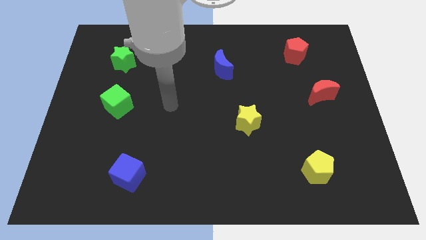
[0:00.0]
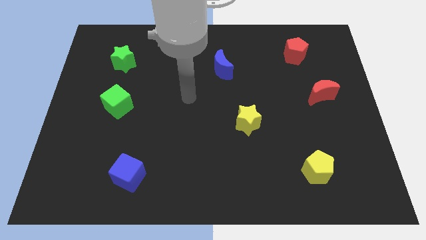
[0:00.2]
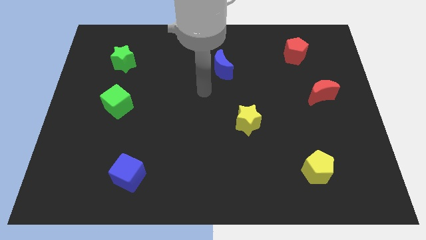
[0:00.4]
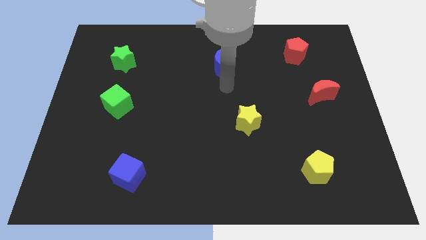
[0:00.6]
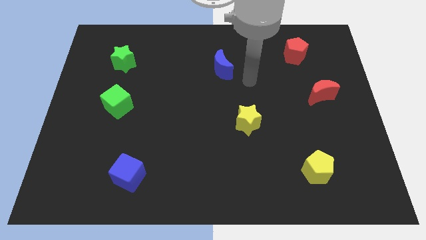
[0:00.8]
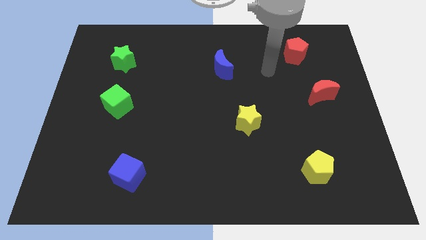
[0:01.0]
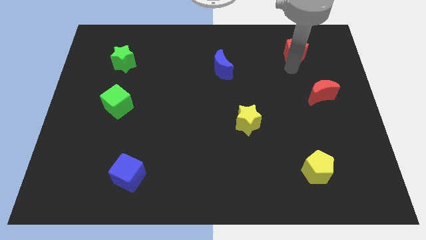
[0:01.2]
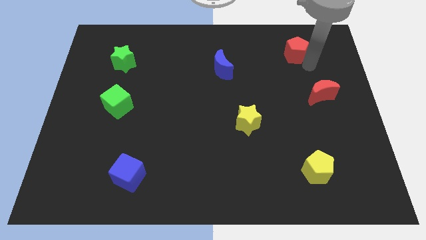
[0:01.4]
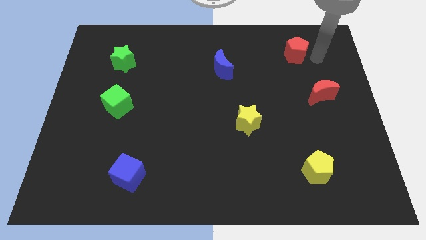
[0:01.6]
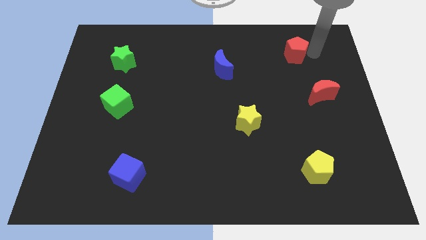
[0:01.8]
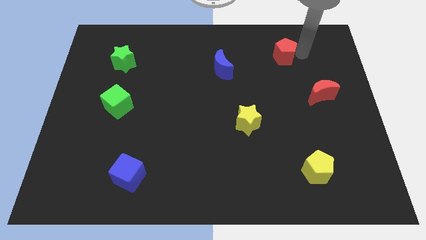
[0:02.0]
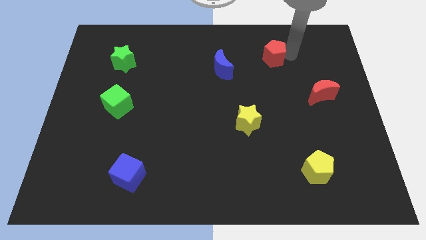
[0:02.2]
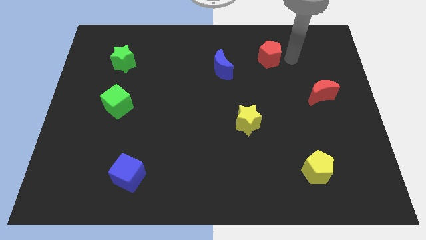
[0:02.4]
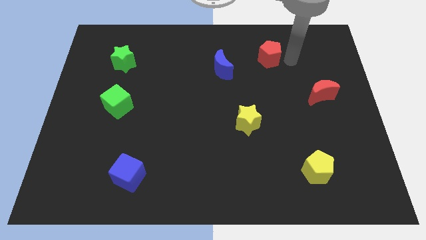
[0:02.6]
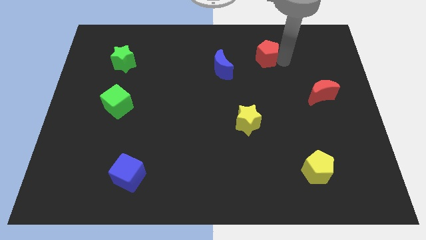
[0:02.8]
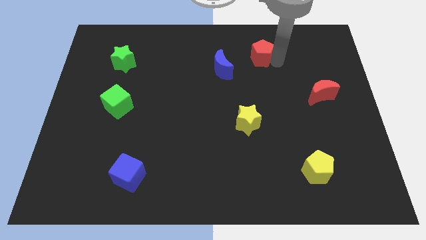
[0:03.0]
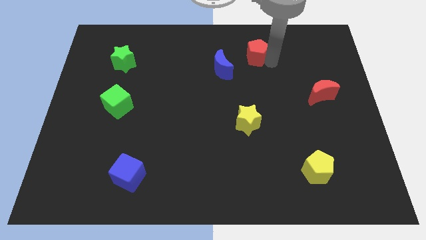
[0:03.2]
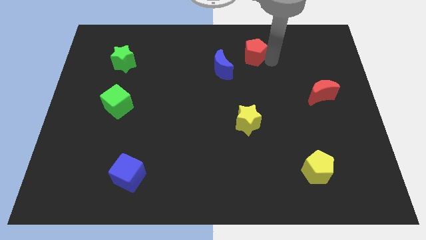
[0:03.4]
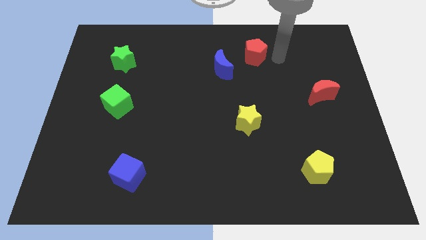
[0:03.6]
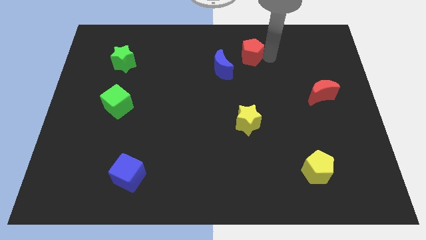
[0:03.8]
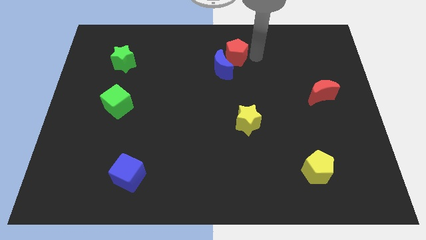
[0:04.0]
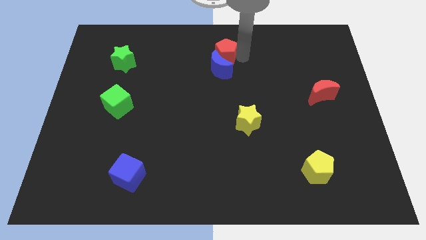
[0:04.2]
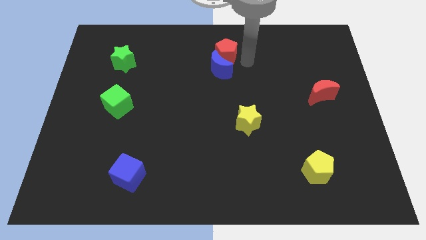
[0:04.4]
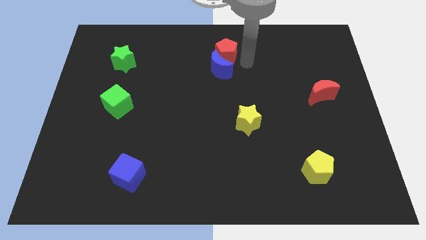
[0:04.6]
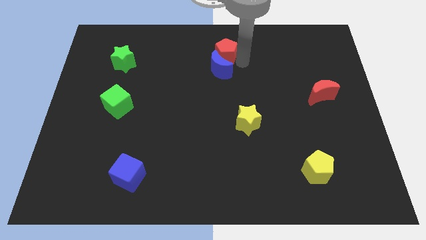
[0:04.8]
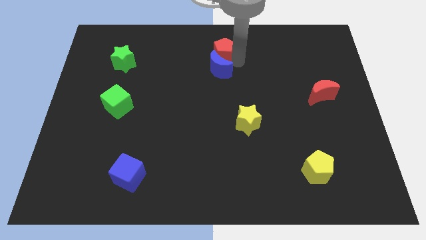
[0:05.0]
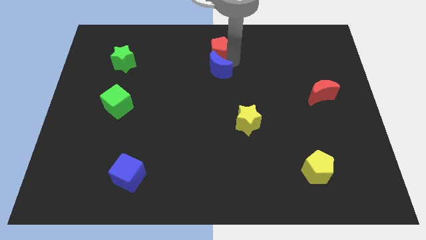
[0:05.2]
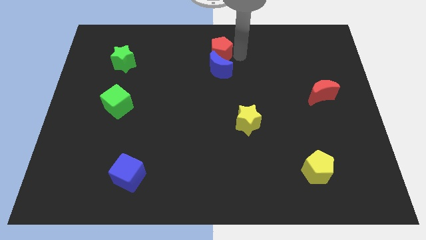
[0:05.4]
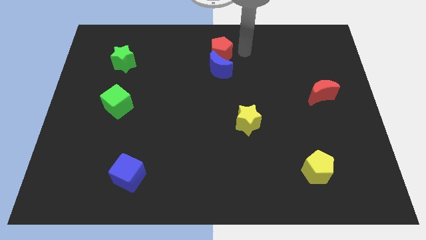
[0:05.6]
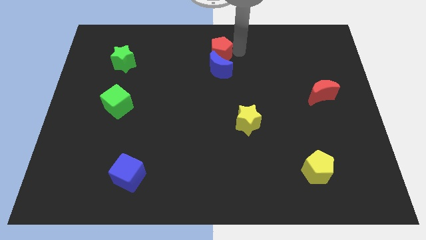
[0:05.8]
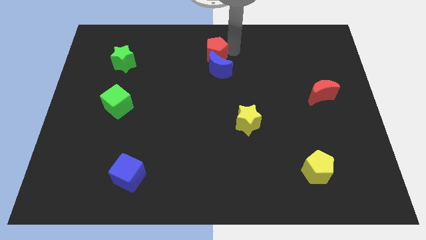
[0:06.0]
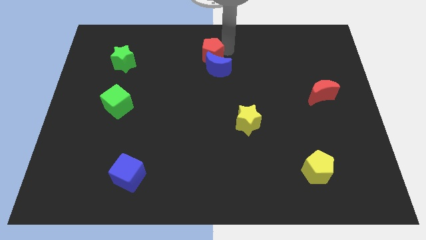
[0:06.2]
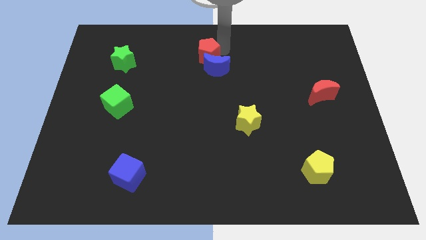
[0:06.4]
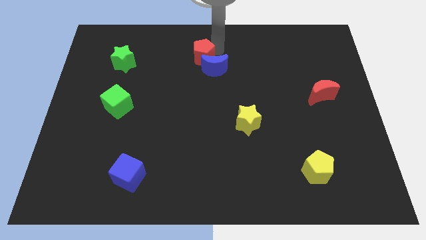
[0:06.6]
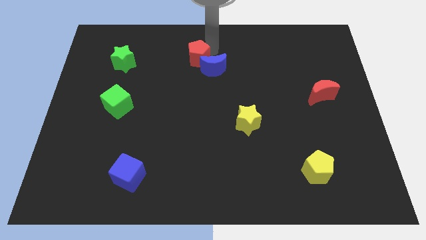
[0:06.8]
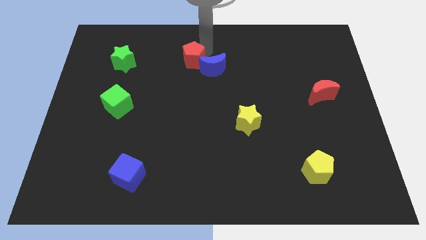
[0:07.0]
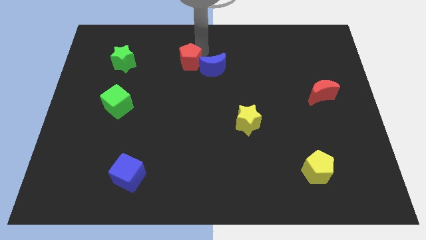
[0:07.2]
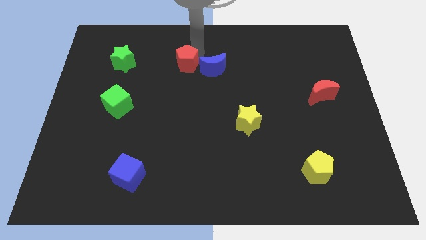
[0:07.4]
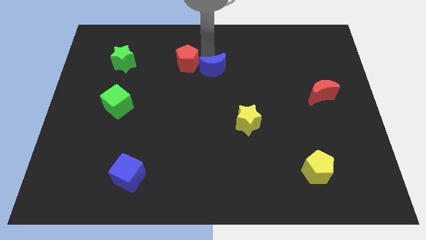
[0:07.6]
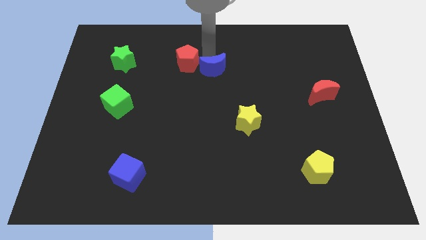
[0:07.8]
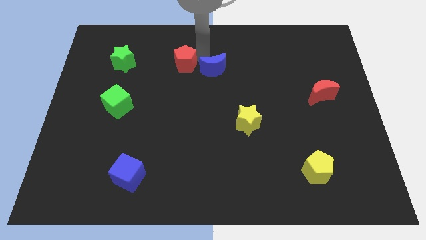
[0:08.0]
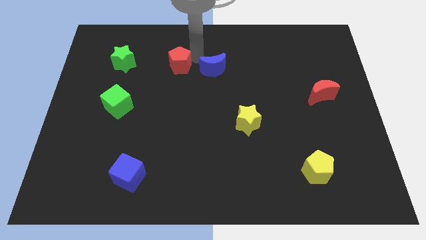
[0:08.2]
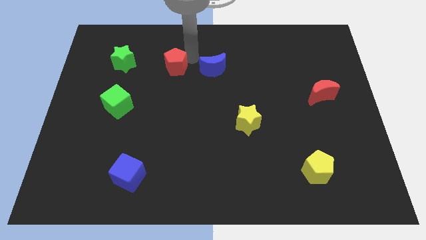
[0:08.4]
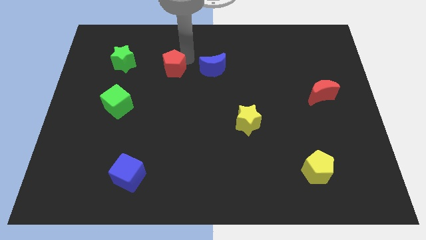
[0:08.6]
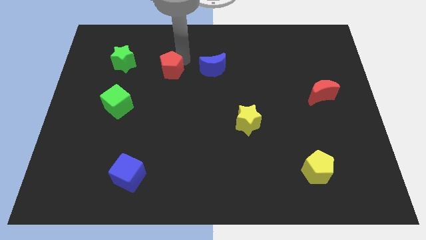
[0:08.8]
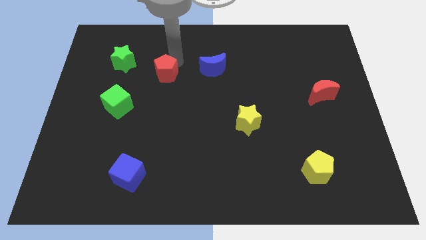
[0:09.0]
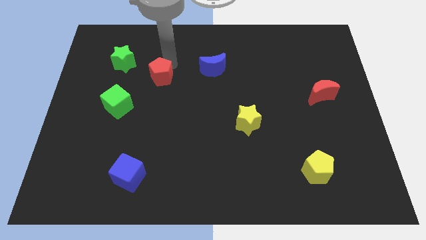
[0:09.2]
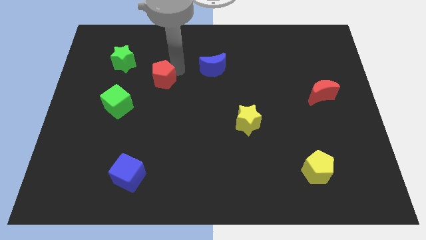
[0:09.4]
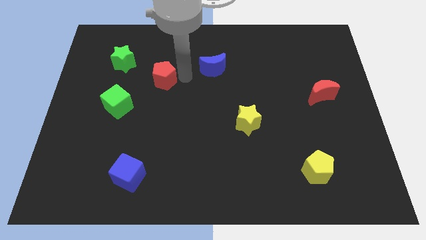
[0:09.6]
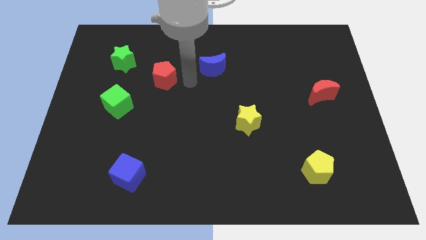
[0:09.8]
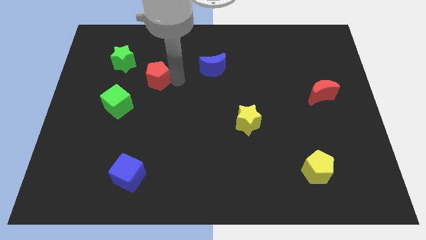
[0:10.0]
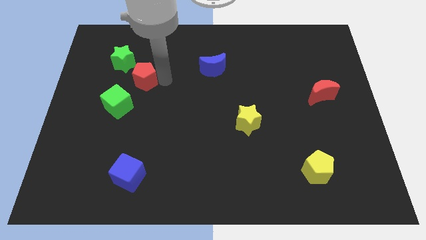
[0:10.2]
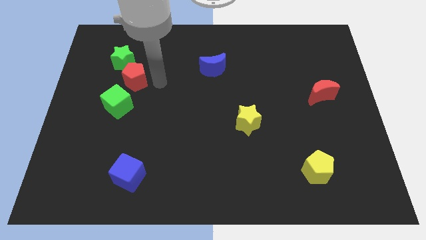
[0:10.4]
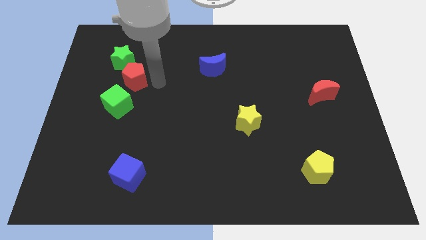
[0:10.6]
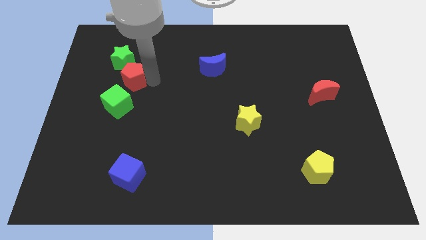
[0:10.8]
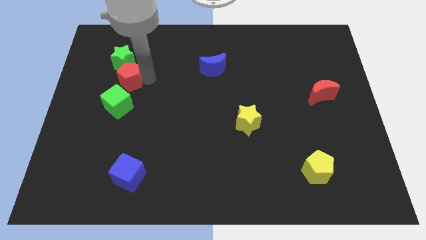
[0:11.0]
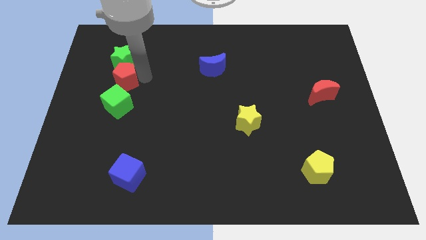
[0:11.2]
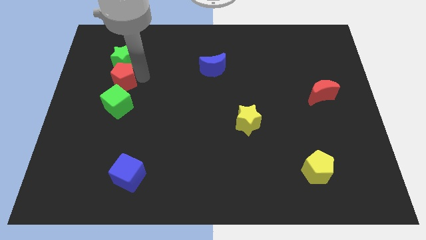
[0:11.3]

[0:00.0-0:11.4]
put the red pentagon to the bottom left side of the green star

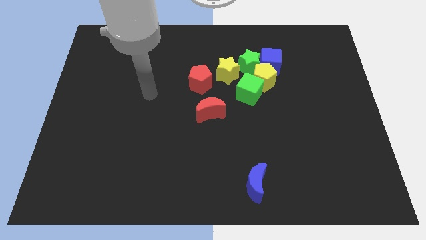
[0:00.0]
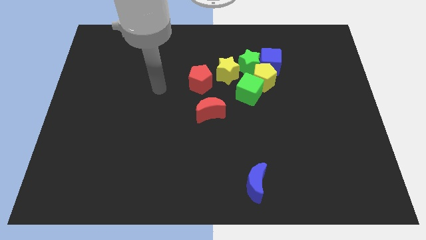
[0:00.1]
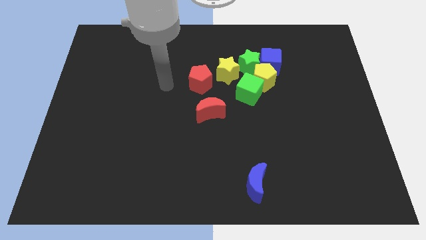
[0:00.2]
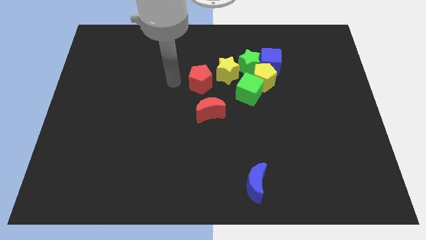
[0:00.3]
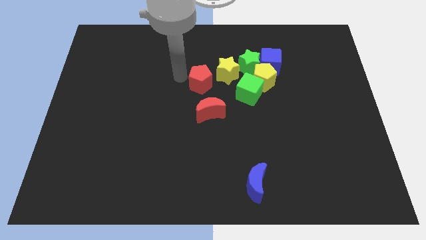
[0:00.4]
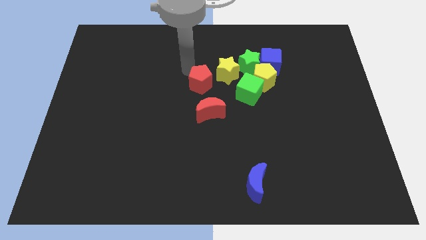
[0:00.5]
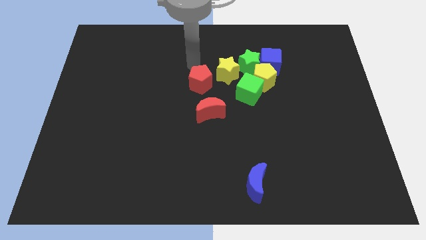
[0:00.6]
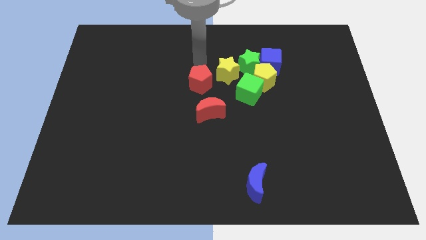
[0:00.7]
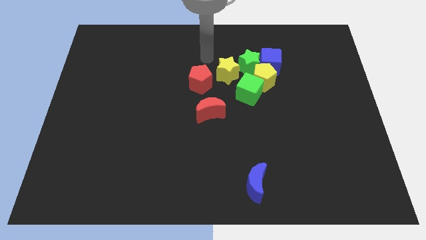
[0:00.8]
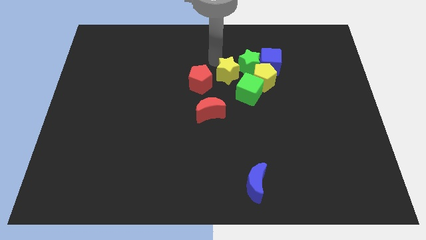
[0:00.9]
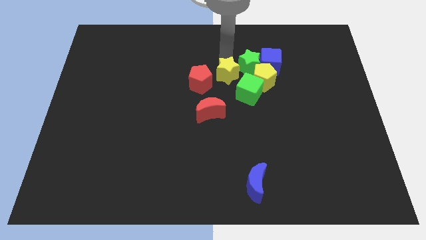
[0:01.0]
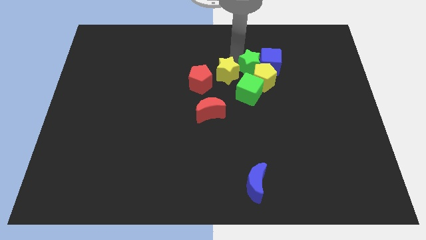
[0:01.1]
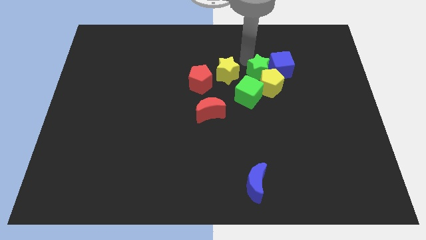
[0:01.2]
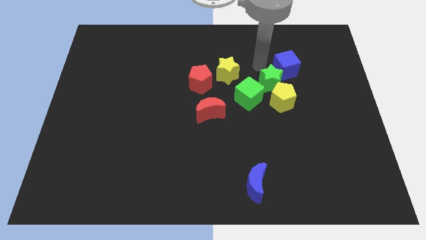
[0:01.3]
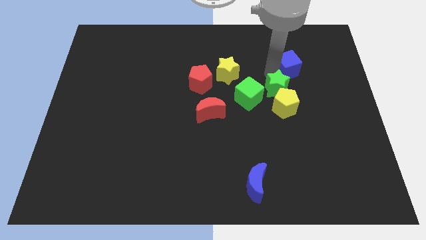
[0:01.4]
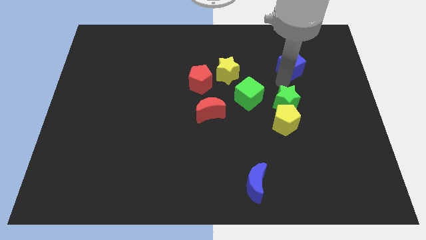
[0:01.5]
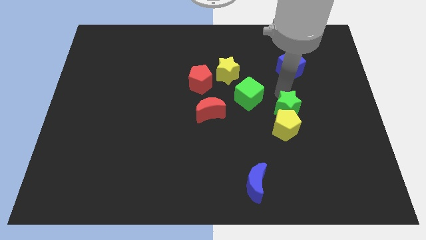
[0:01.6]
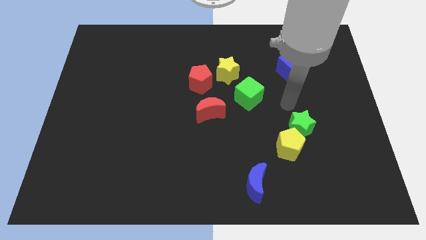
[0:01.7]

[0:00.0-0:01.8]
push the yellow pentagon diagonally up and to the right of the blue moon
